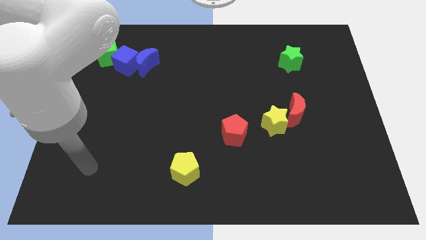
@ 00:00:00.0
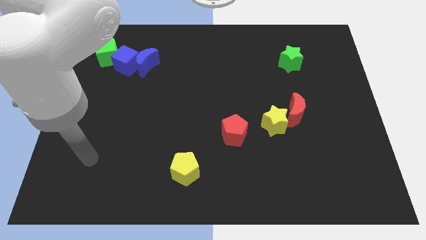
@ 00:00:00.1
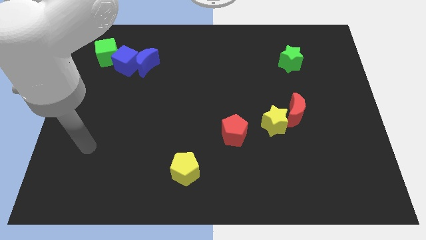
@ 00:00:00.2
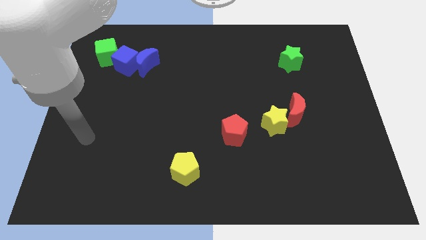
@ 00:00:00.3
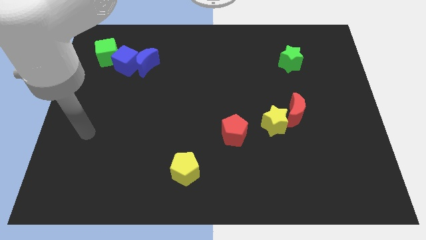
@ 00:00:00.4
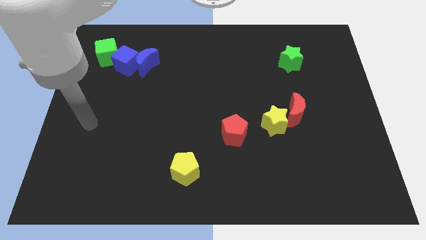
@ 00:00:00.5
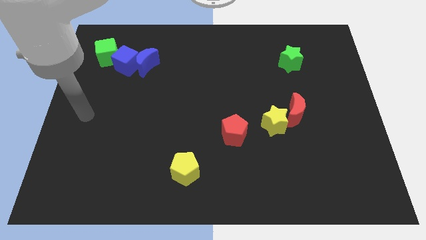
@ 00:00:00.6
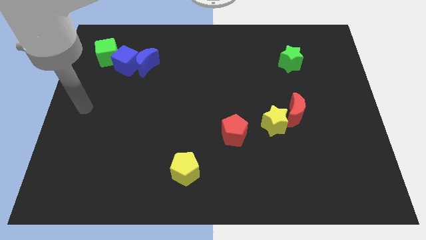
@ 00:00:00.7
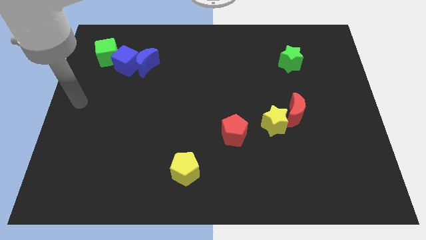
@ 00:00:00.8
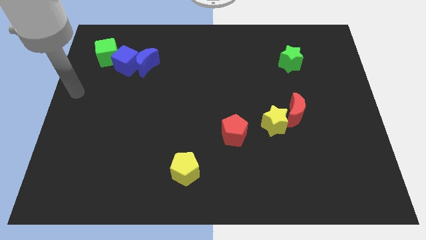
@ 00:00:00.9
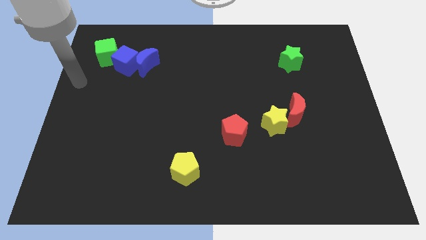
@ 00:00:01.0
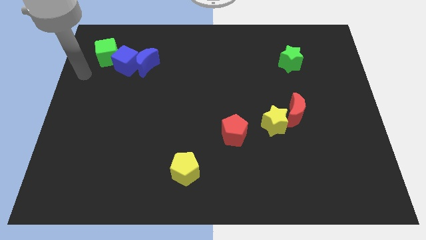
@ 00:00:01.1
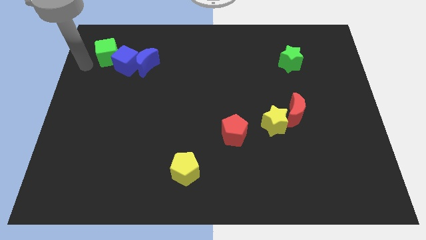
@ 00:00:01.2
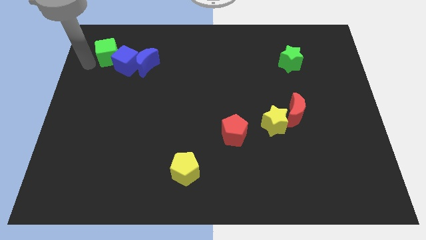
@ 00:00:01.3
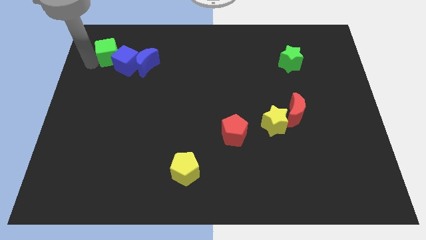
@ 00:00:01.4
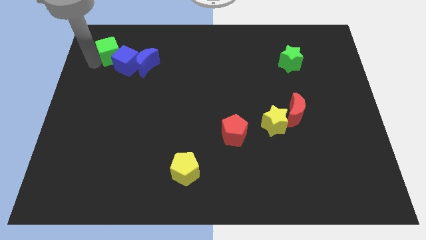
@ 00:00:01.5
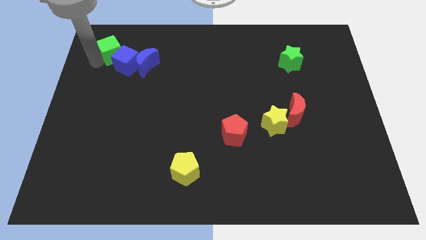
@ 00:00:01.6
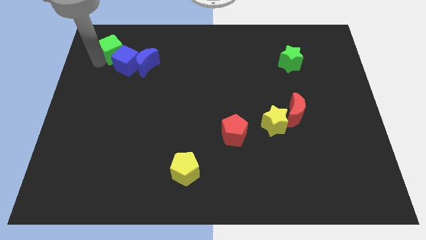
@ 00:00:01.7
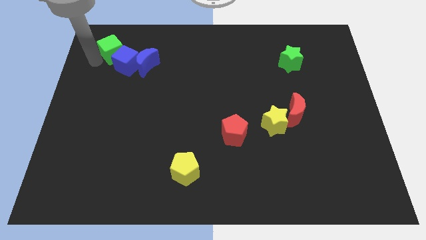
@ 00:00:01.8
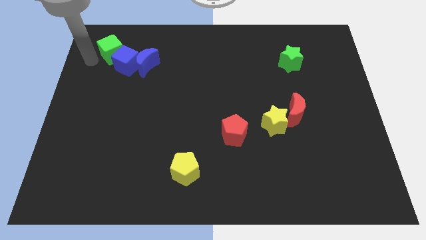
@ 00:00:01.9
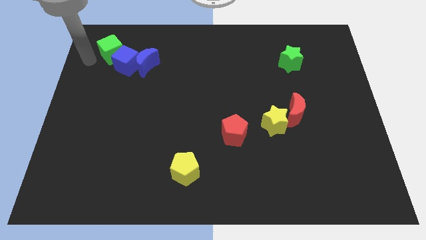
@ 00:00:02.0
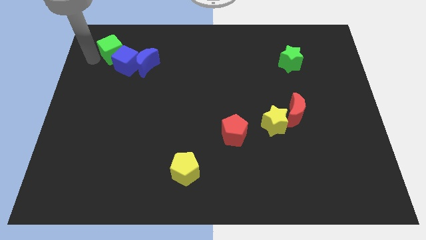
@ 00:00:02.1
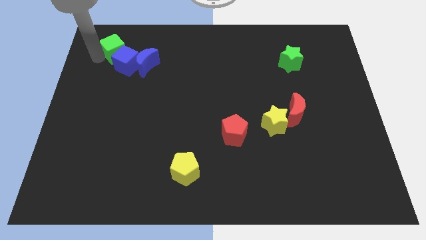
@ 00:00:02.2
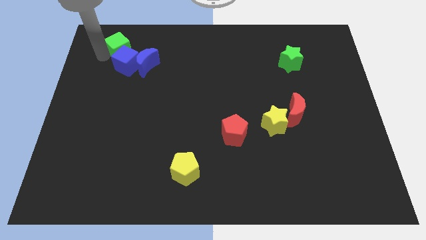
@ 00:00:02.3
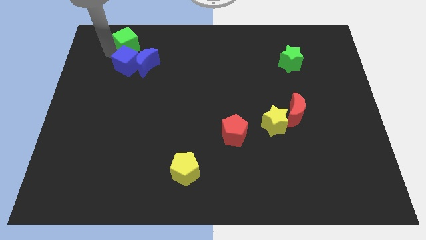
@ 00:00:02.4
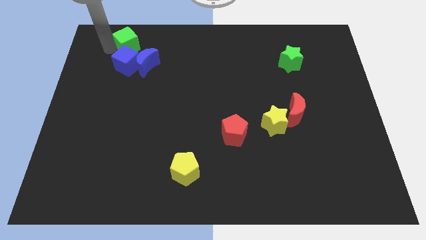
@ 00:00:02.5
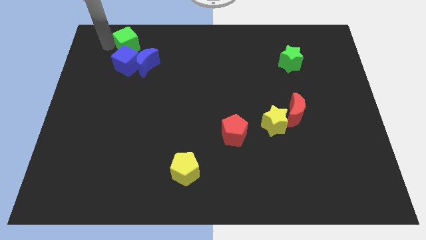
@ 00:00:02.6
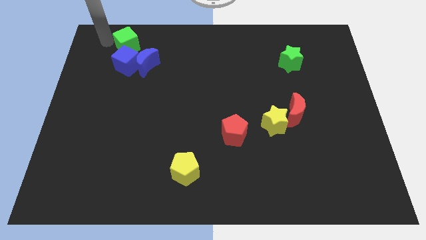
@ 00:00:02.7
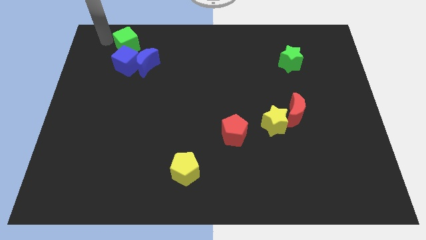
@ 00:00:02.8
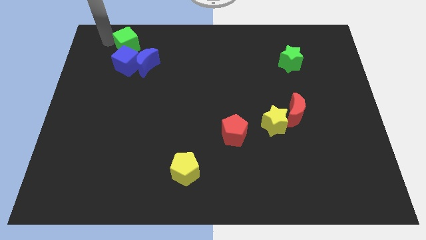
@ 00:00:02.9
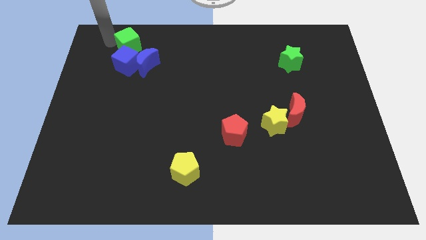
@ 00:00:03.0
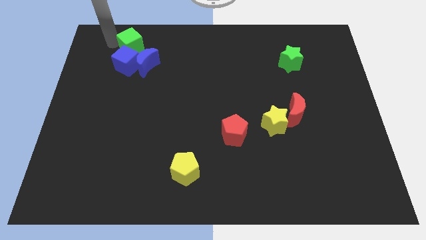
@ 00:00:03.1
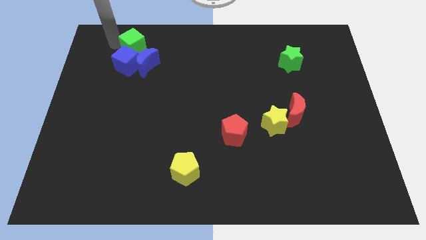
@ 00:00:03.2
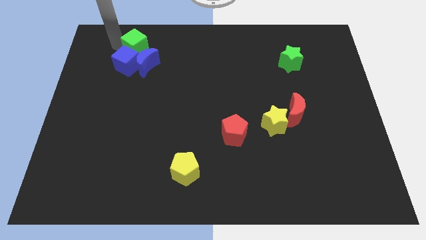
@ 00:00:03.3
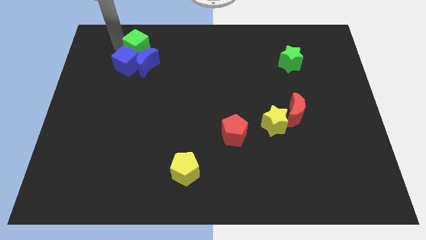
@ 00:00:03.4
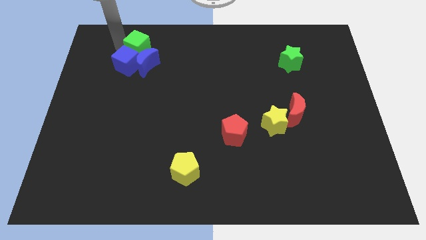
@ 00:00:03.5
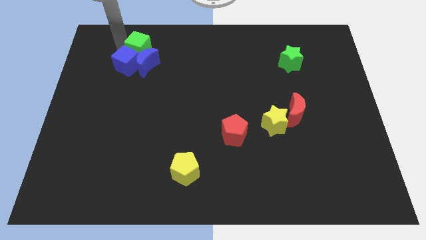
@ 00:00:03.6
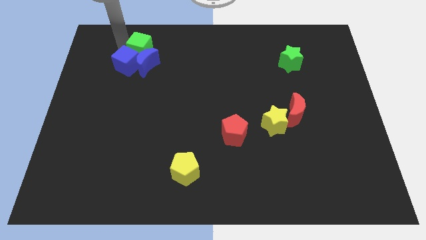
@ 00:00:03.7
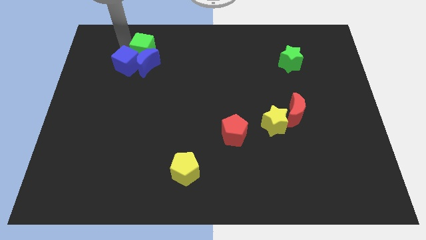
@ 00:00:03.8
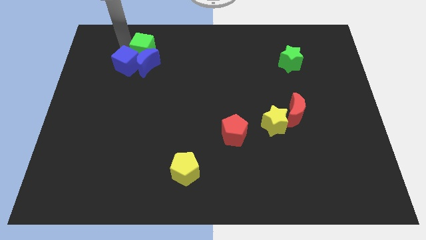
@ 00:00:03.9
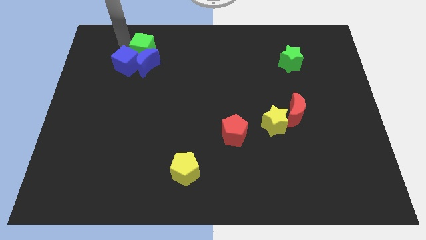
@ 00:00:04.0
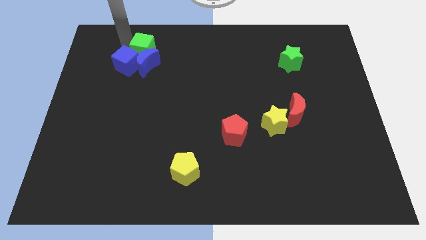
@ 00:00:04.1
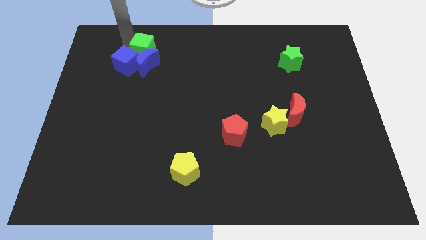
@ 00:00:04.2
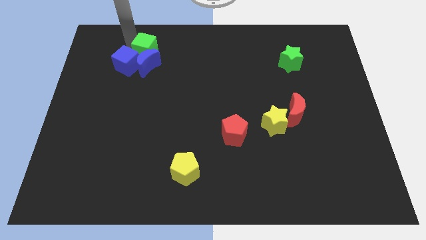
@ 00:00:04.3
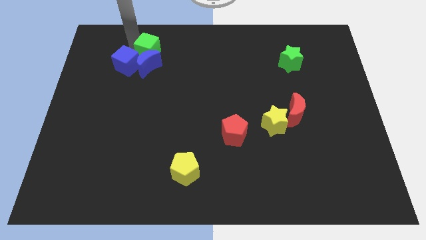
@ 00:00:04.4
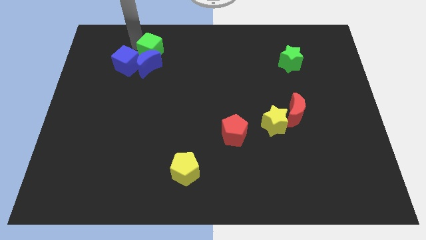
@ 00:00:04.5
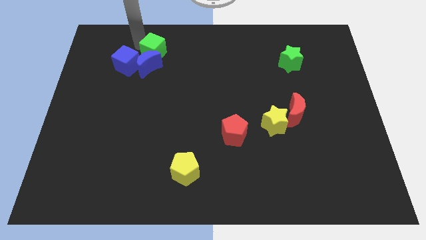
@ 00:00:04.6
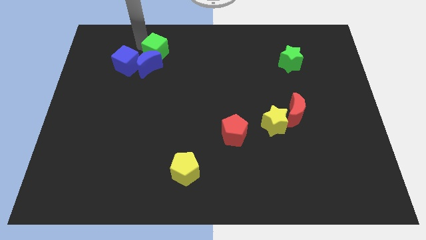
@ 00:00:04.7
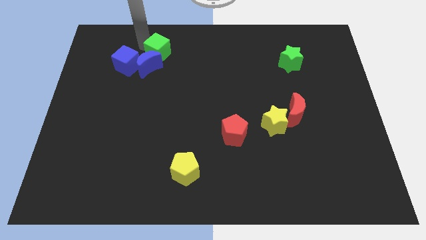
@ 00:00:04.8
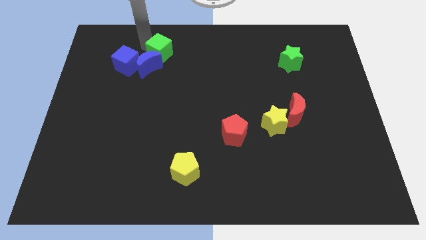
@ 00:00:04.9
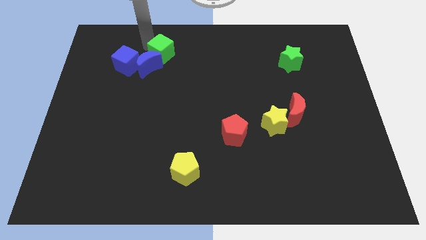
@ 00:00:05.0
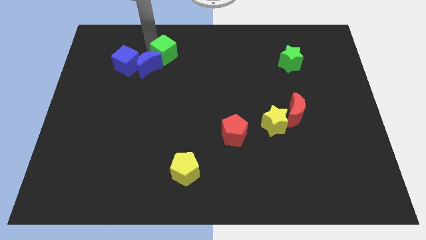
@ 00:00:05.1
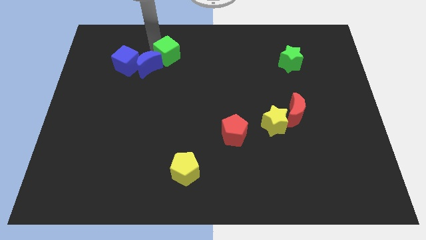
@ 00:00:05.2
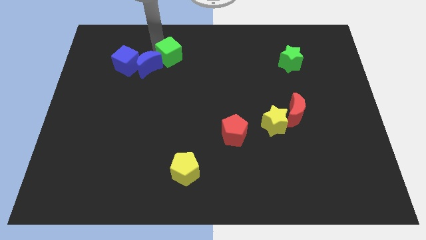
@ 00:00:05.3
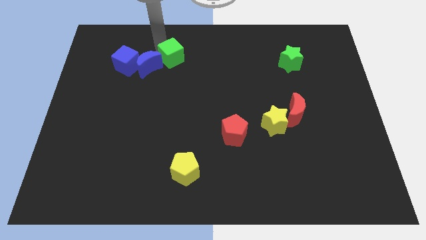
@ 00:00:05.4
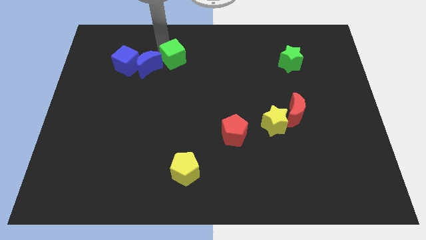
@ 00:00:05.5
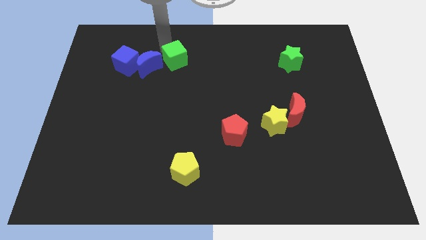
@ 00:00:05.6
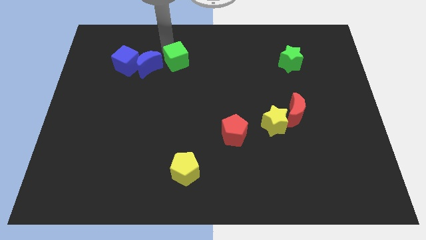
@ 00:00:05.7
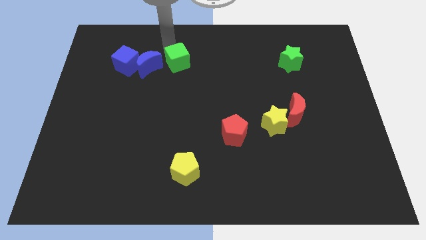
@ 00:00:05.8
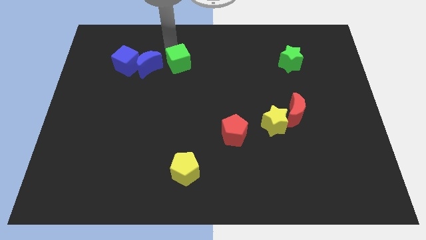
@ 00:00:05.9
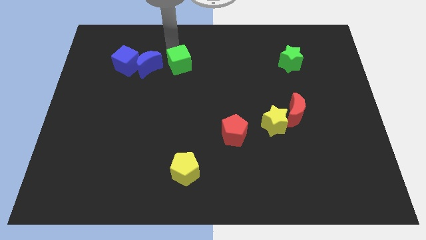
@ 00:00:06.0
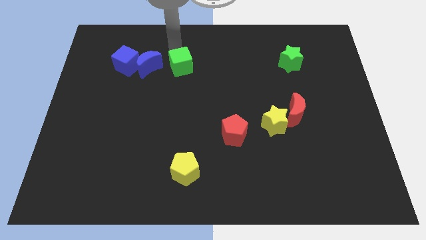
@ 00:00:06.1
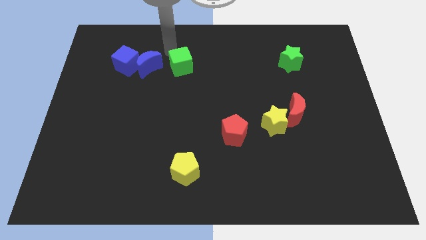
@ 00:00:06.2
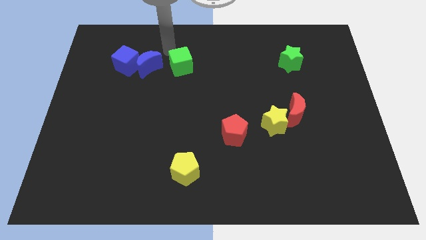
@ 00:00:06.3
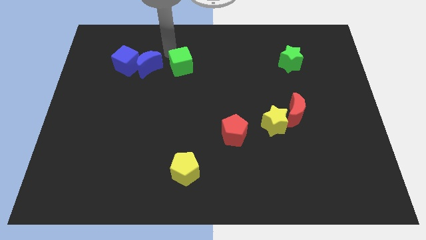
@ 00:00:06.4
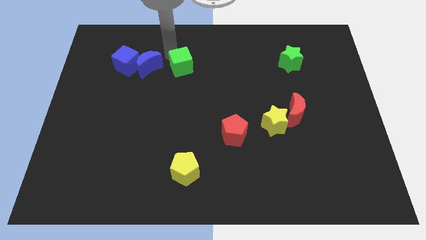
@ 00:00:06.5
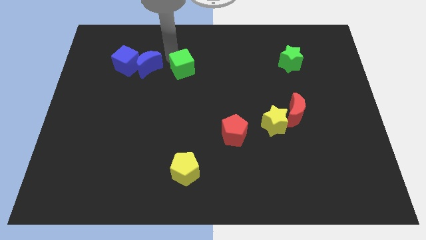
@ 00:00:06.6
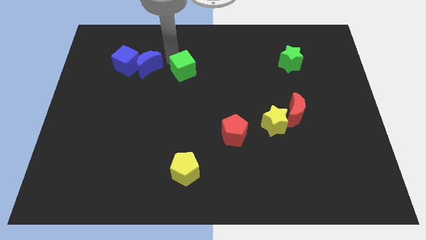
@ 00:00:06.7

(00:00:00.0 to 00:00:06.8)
push the green cube to the center of the board
